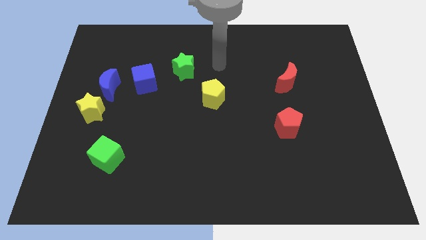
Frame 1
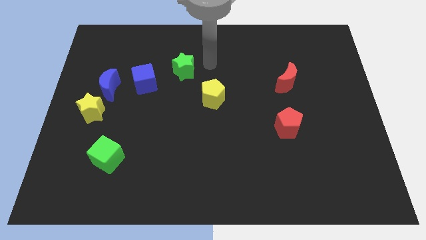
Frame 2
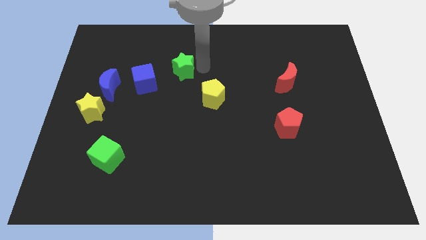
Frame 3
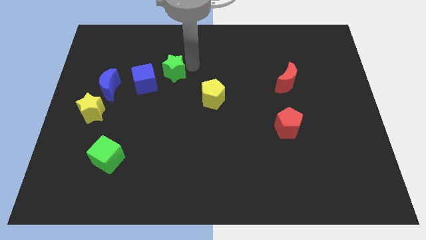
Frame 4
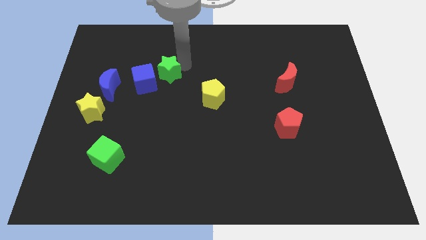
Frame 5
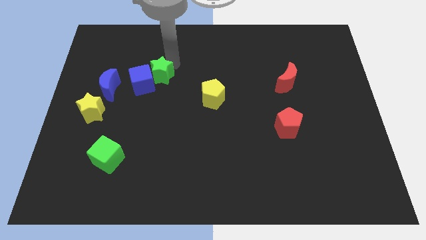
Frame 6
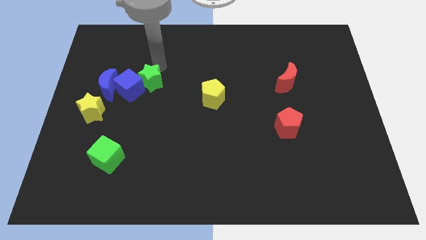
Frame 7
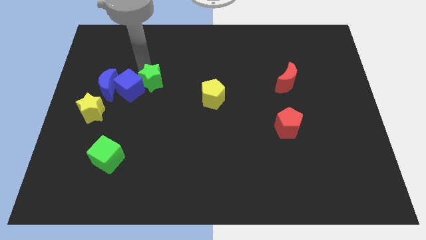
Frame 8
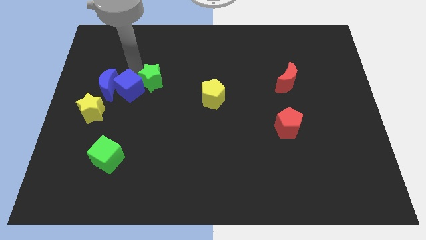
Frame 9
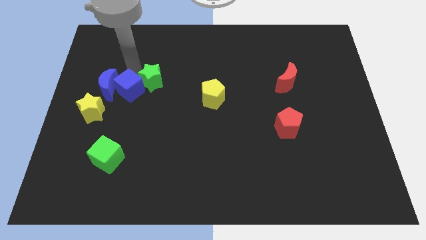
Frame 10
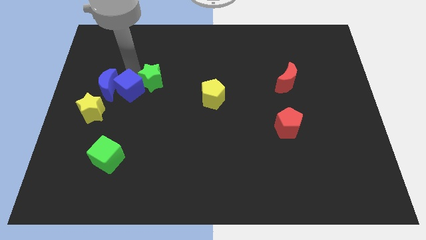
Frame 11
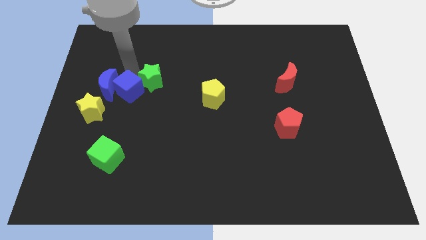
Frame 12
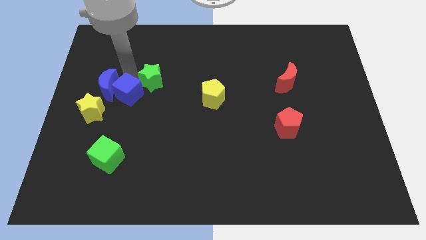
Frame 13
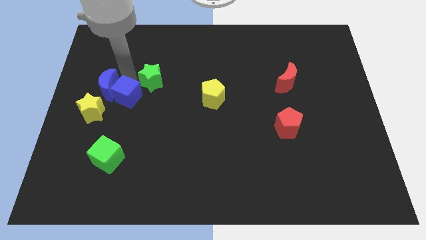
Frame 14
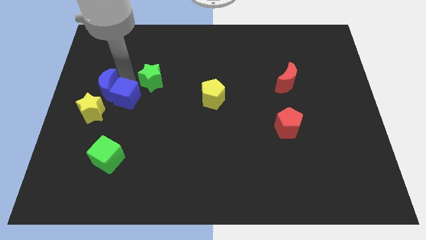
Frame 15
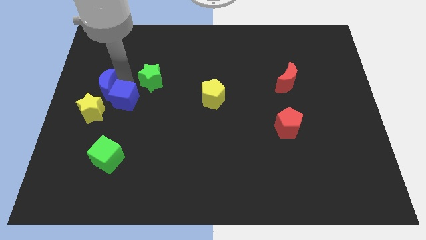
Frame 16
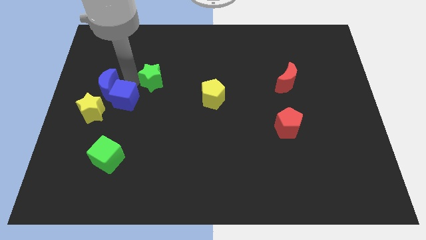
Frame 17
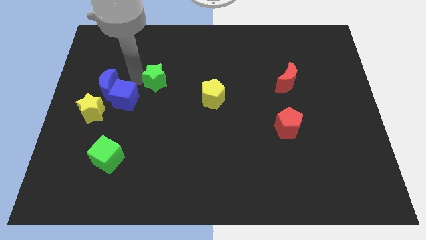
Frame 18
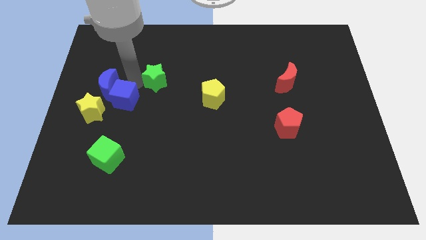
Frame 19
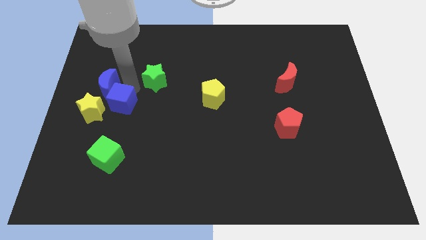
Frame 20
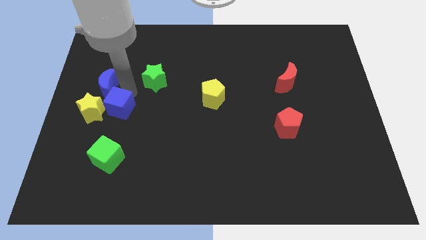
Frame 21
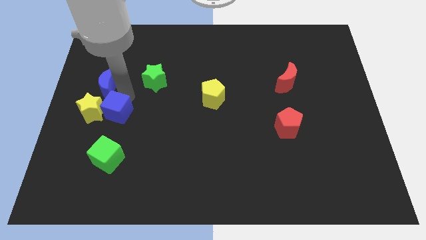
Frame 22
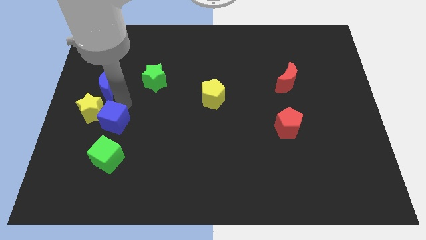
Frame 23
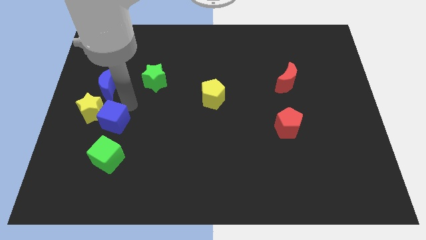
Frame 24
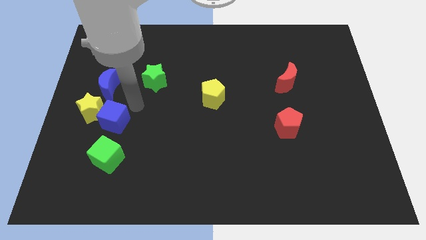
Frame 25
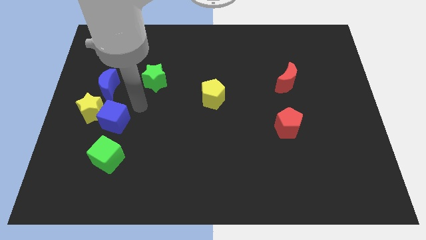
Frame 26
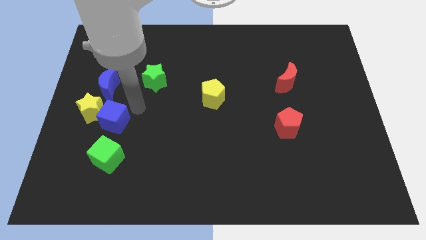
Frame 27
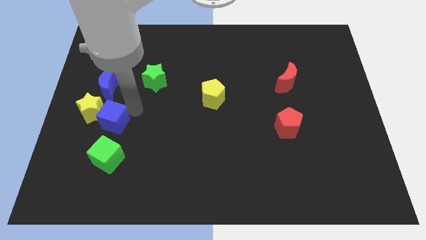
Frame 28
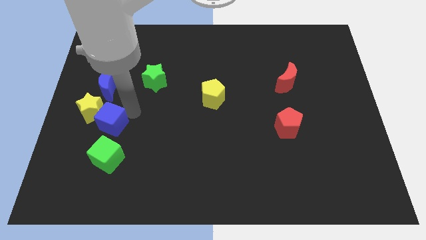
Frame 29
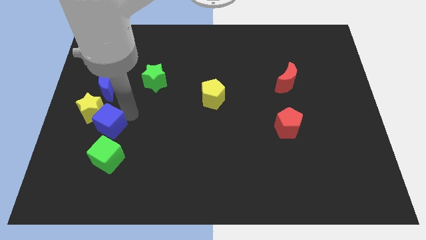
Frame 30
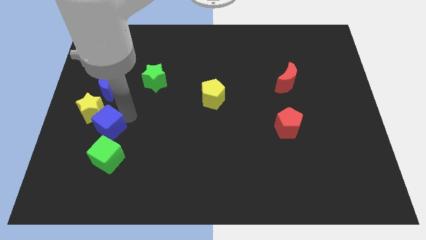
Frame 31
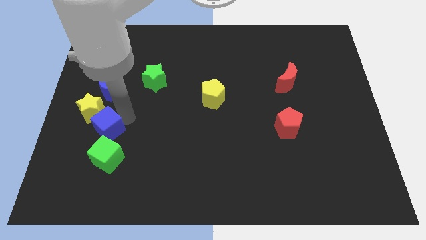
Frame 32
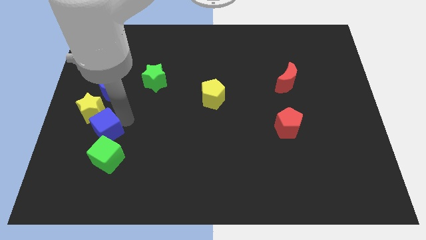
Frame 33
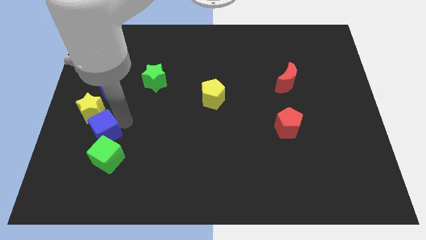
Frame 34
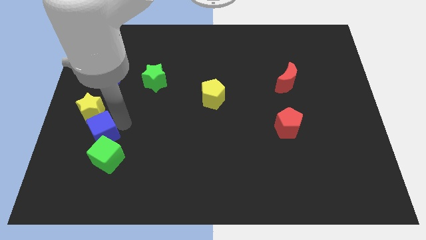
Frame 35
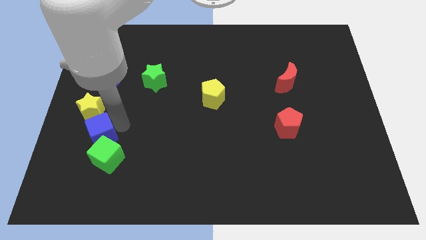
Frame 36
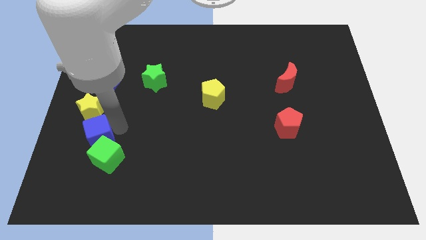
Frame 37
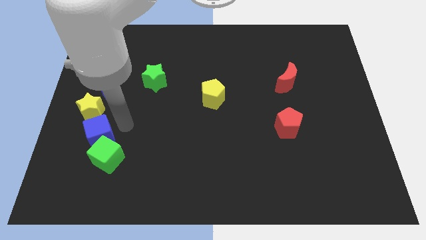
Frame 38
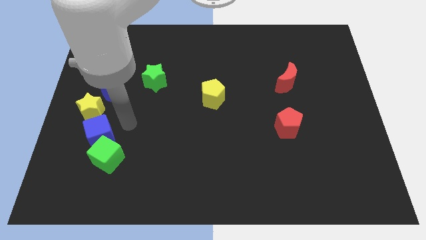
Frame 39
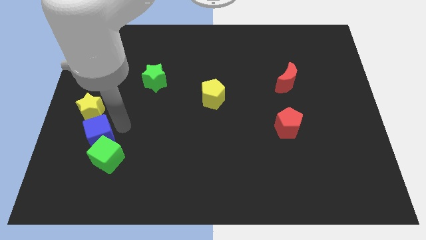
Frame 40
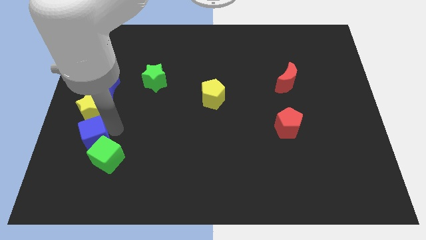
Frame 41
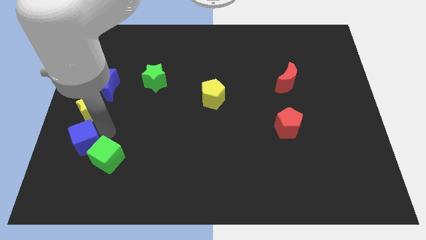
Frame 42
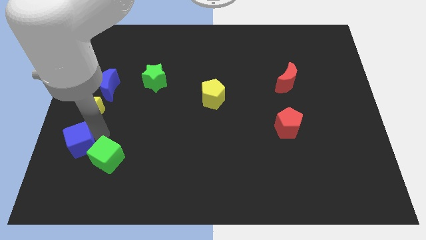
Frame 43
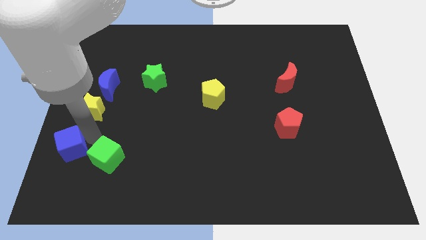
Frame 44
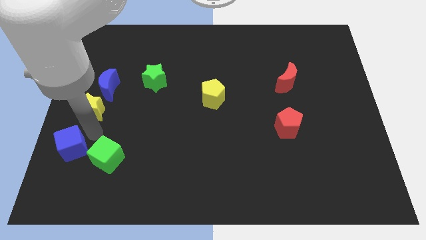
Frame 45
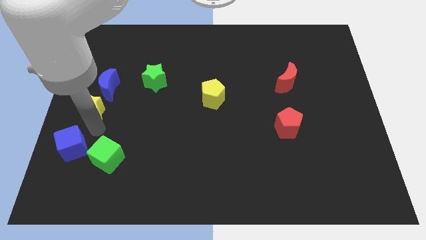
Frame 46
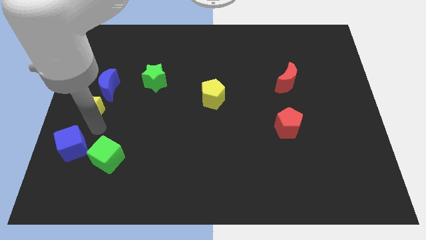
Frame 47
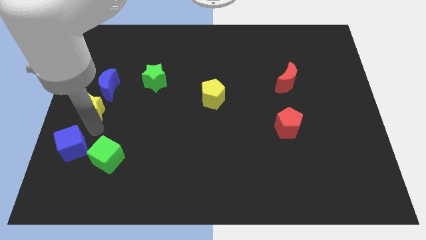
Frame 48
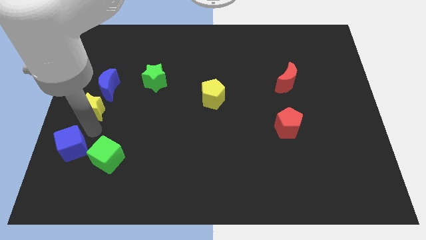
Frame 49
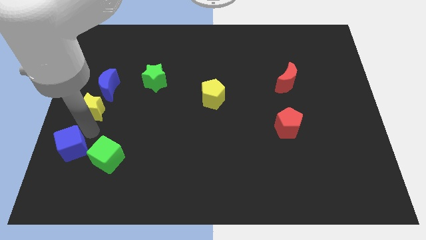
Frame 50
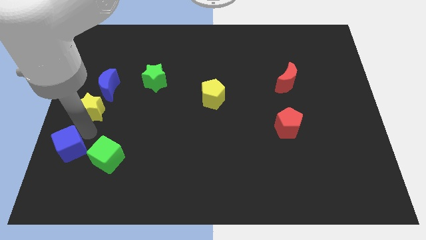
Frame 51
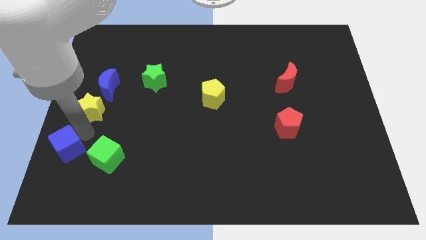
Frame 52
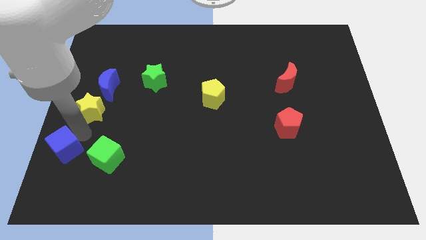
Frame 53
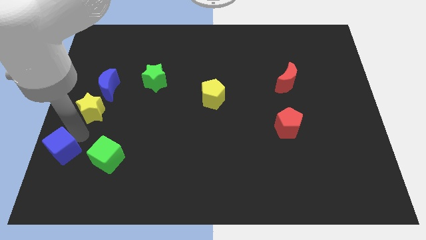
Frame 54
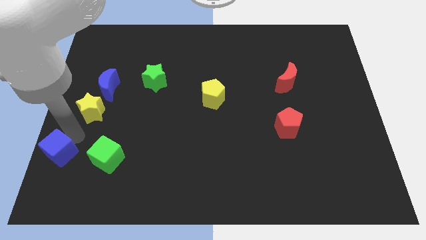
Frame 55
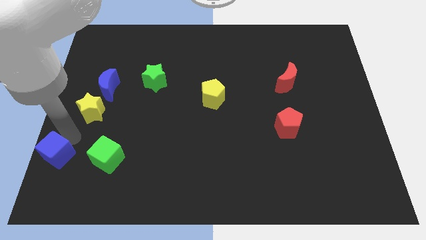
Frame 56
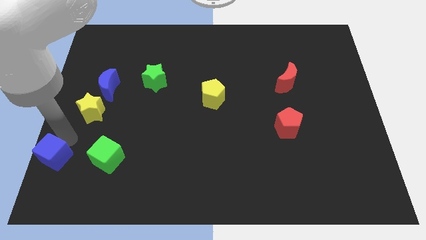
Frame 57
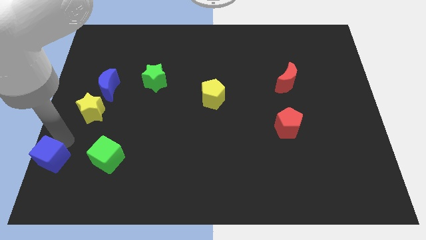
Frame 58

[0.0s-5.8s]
put the blue cube to the bottom left corner

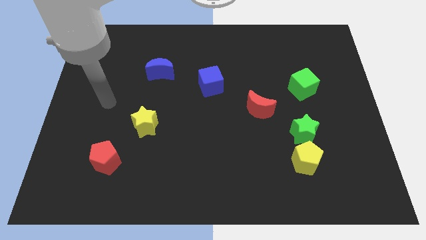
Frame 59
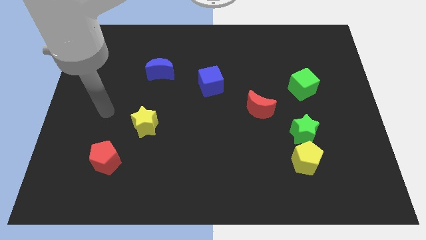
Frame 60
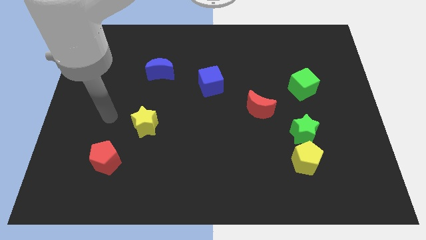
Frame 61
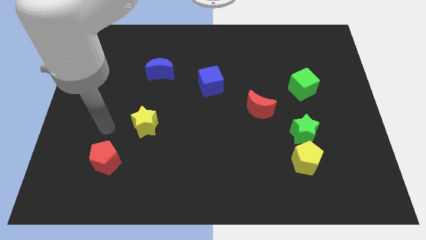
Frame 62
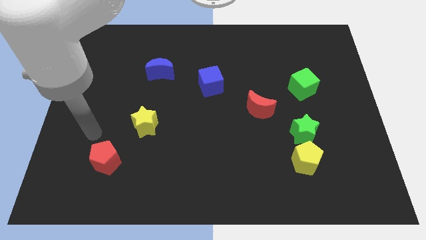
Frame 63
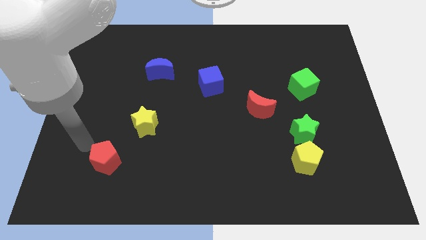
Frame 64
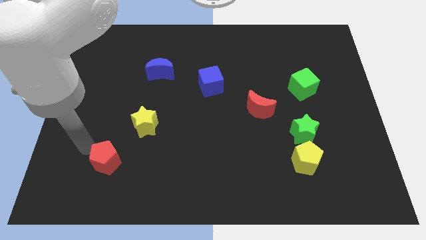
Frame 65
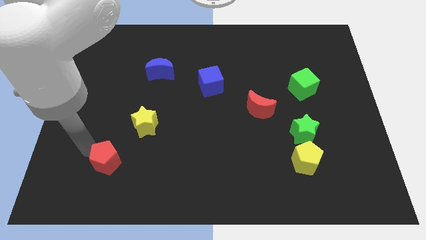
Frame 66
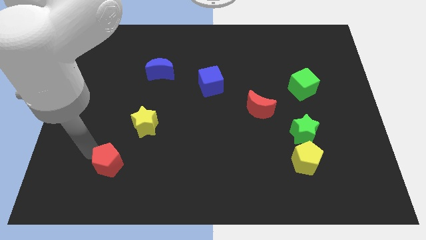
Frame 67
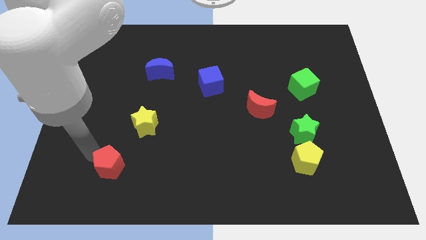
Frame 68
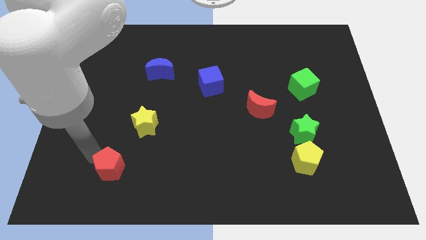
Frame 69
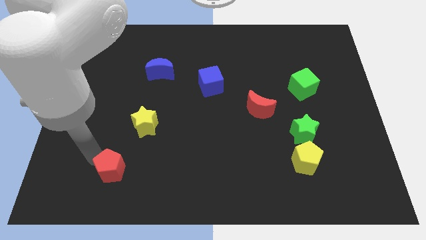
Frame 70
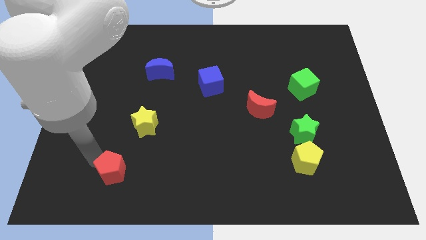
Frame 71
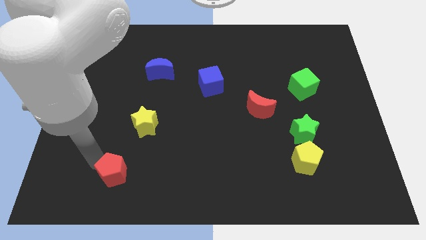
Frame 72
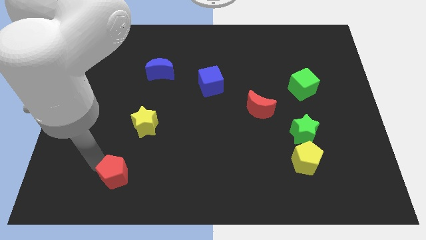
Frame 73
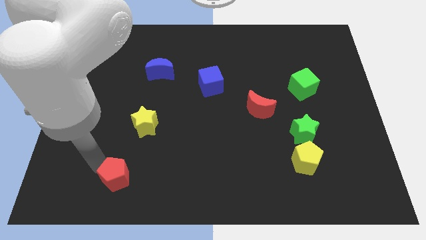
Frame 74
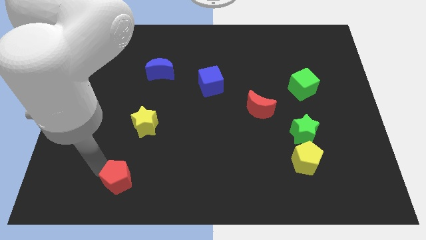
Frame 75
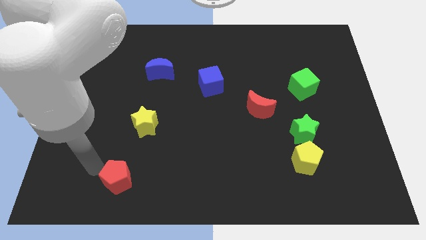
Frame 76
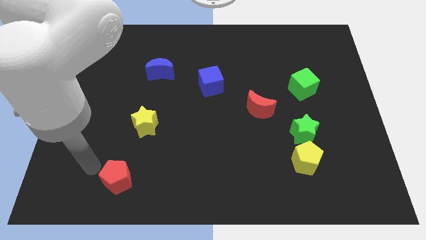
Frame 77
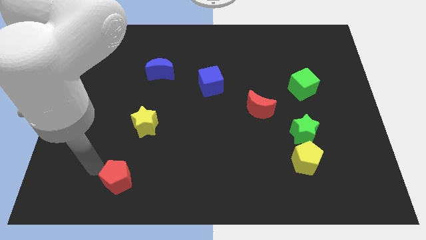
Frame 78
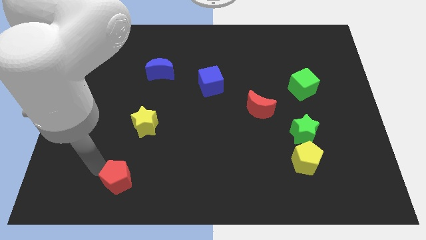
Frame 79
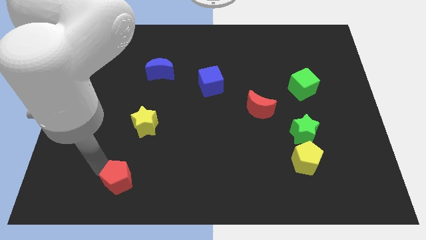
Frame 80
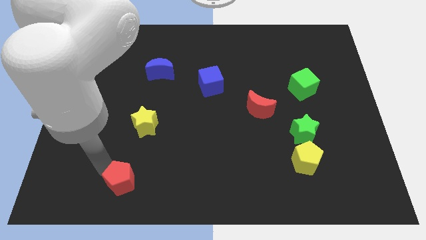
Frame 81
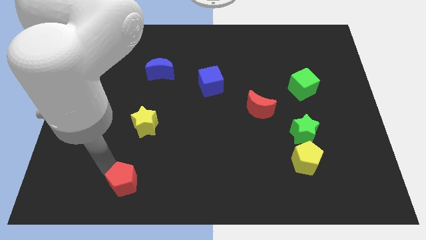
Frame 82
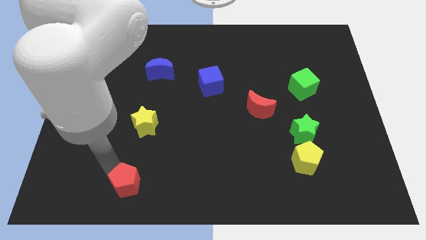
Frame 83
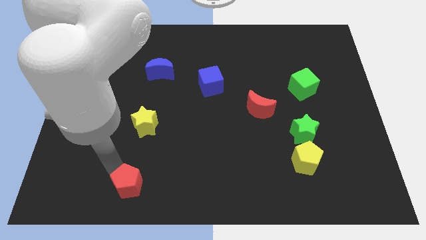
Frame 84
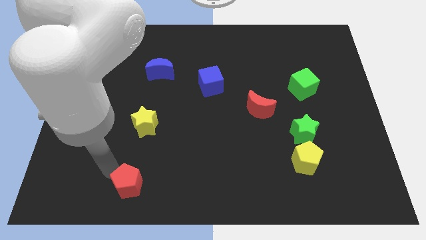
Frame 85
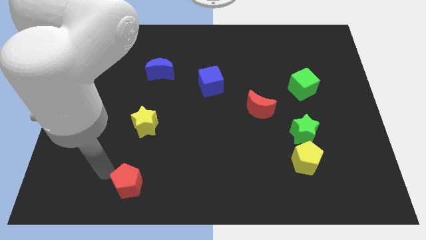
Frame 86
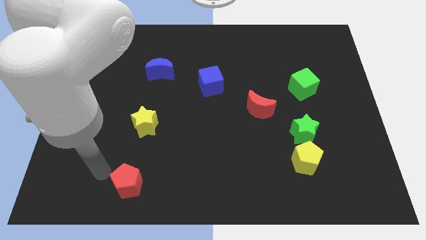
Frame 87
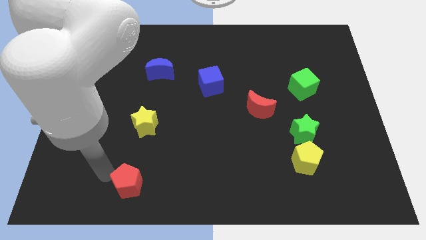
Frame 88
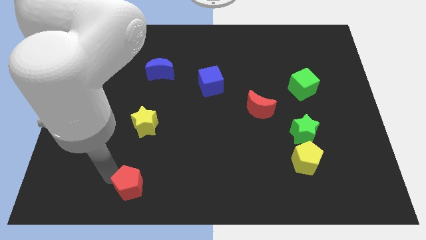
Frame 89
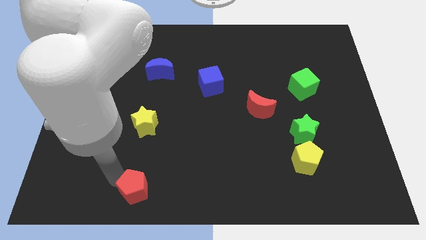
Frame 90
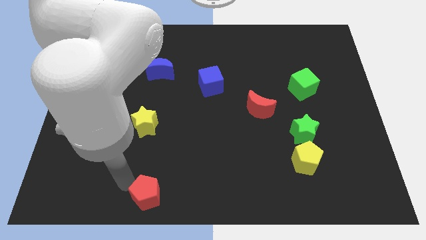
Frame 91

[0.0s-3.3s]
put the red pentagon to the bottom
